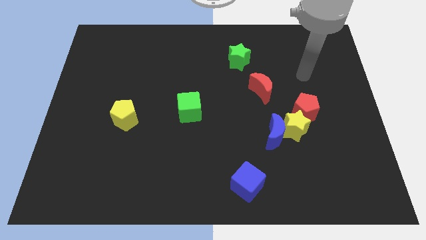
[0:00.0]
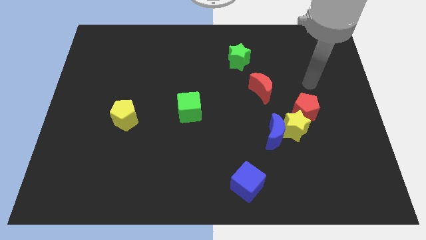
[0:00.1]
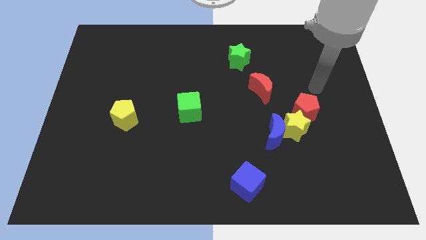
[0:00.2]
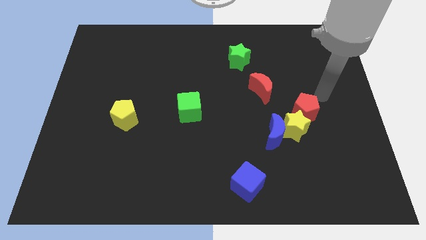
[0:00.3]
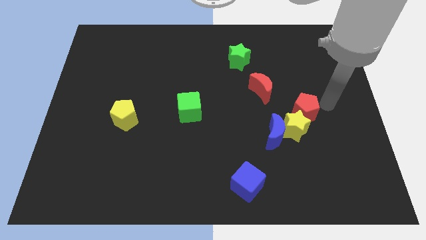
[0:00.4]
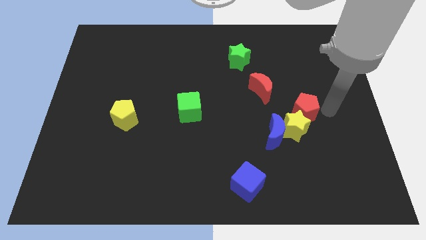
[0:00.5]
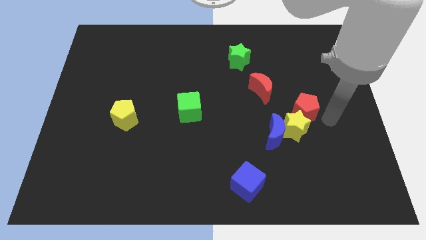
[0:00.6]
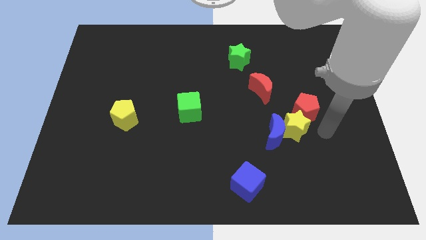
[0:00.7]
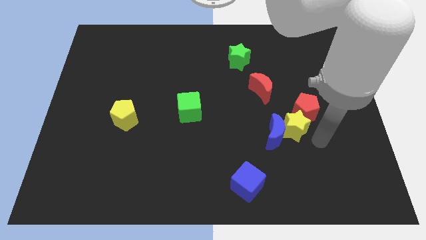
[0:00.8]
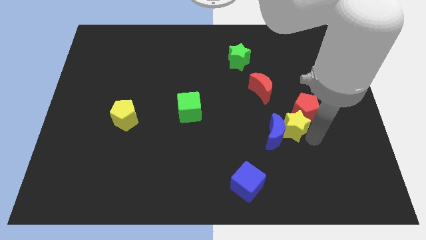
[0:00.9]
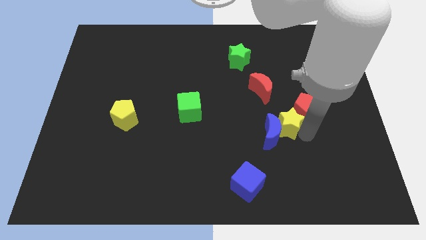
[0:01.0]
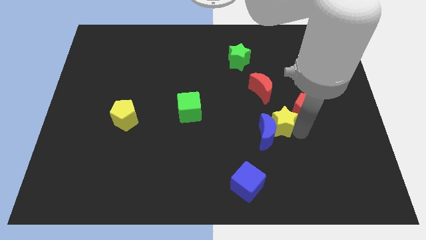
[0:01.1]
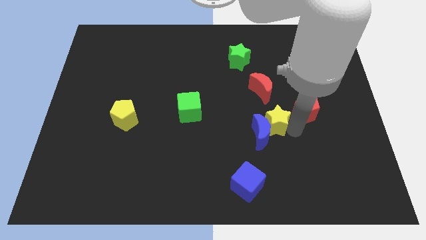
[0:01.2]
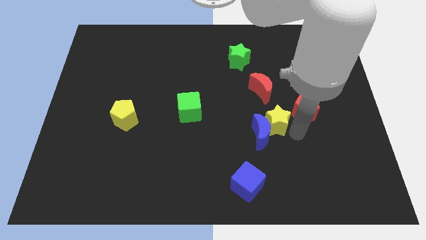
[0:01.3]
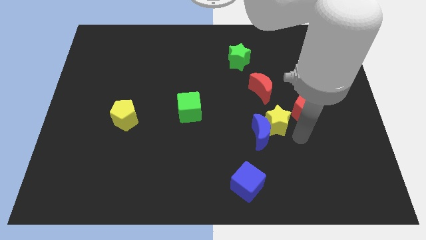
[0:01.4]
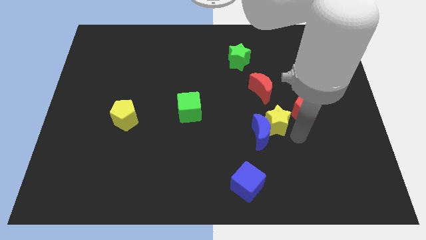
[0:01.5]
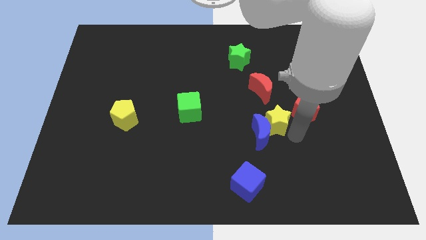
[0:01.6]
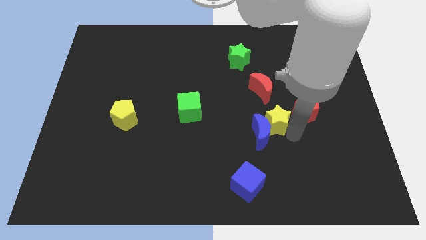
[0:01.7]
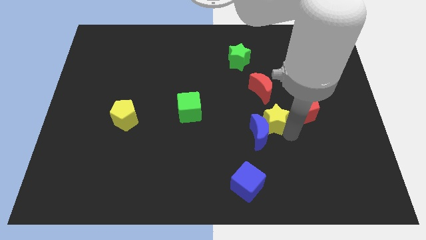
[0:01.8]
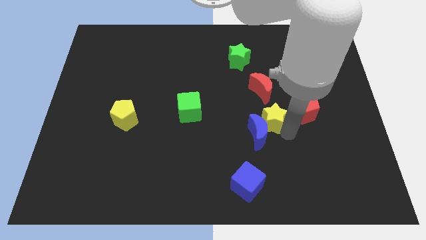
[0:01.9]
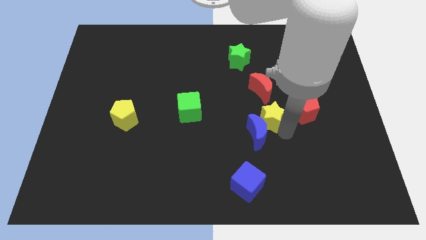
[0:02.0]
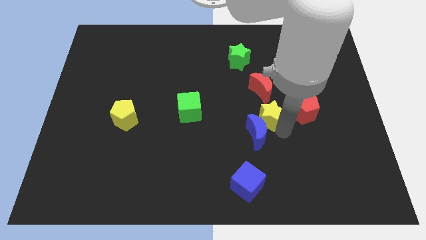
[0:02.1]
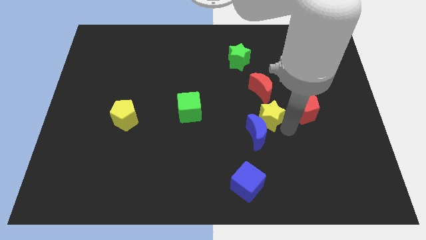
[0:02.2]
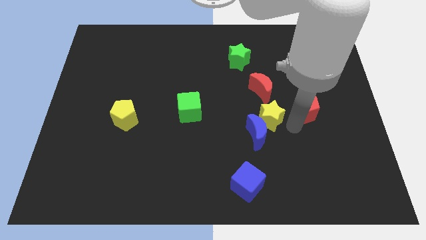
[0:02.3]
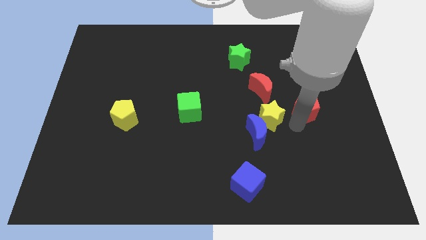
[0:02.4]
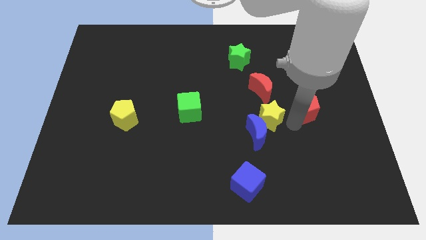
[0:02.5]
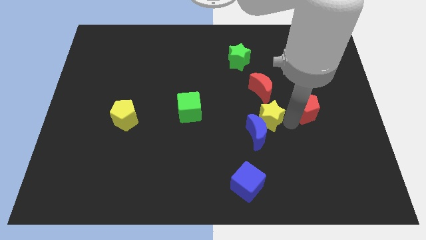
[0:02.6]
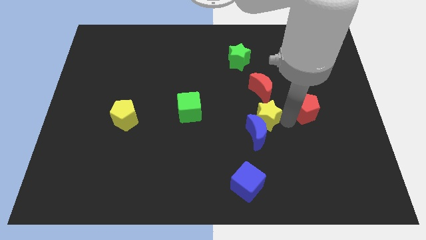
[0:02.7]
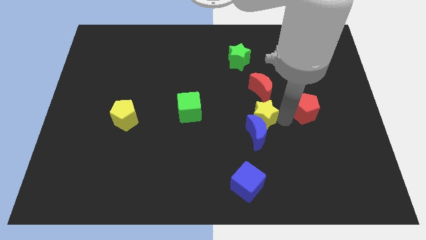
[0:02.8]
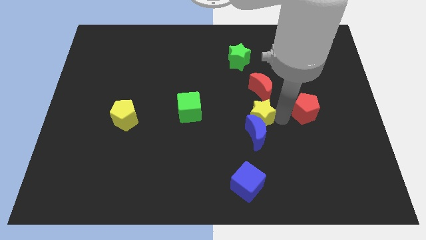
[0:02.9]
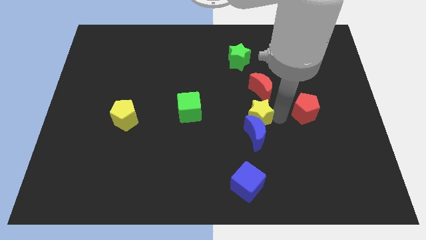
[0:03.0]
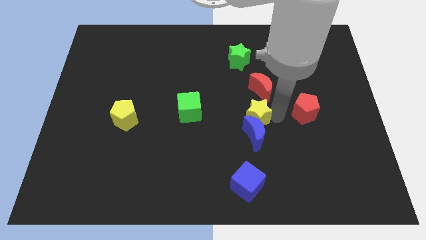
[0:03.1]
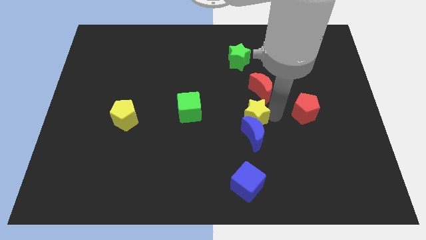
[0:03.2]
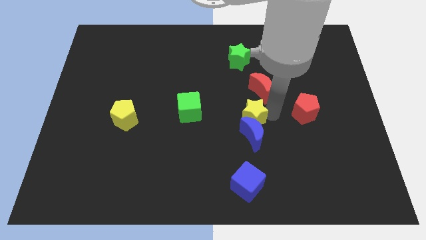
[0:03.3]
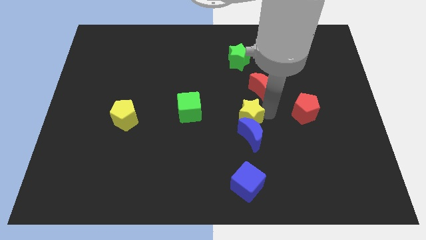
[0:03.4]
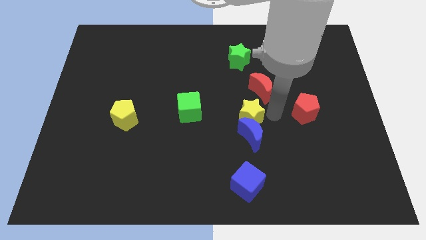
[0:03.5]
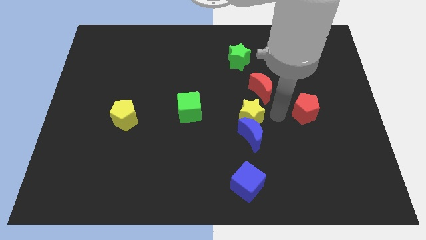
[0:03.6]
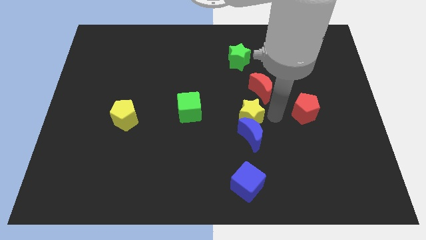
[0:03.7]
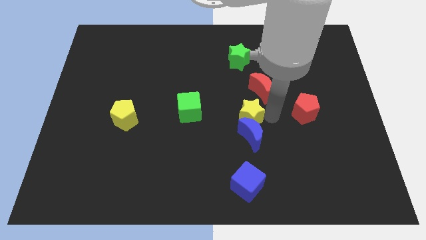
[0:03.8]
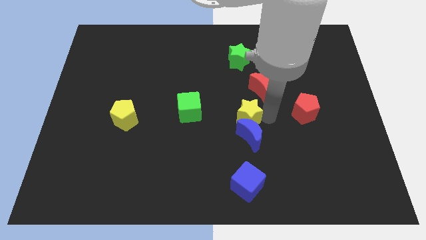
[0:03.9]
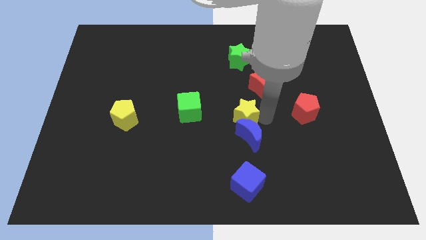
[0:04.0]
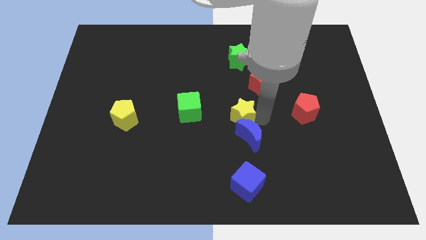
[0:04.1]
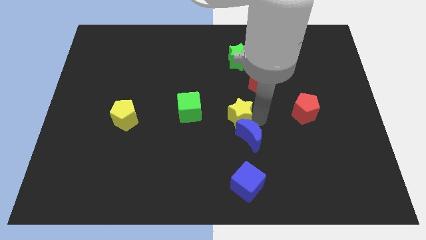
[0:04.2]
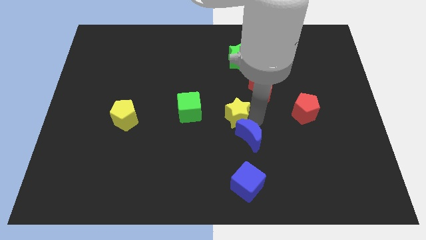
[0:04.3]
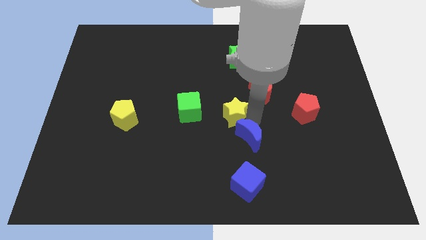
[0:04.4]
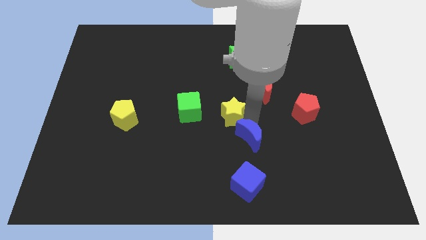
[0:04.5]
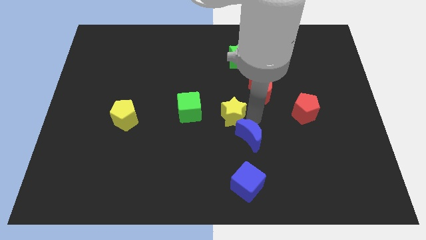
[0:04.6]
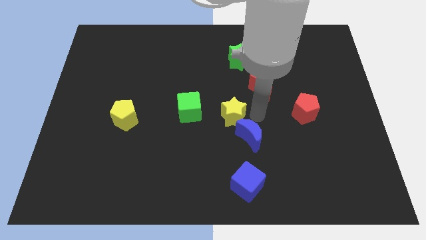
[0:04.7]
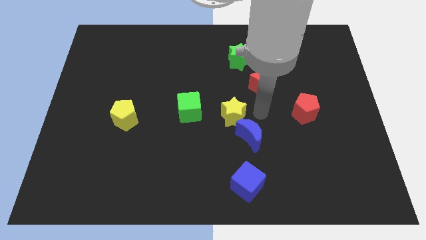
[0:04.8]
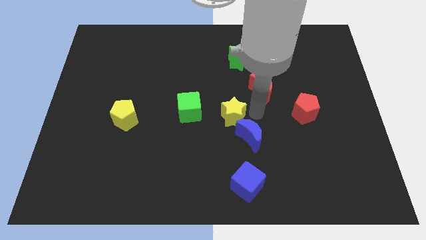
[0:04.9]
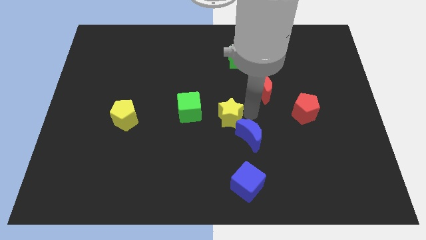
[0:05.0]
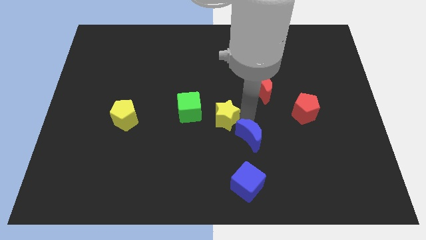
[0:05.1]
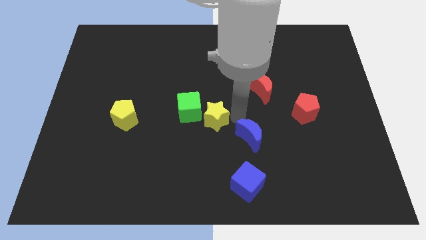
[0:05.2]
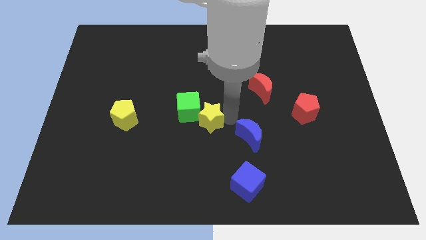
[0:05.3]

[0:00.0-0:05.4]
push the yellow star close to the green cube

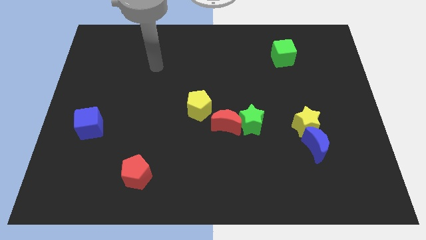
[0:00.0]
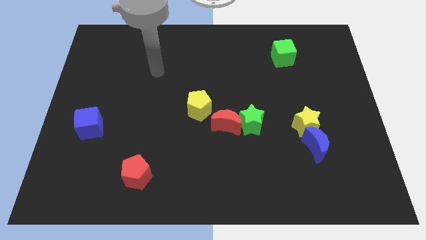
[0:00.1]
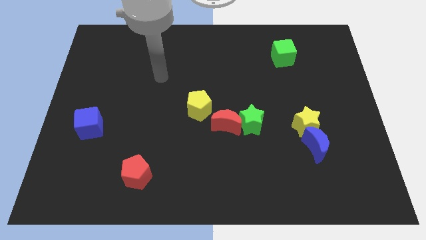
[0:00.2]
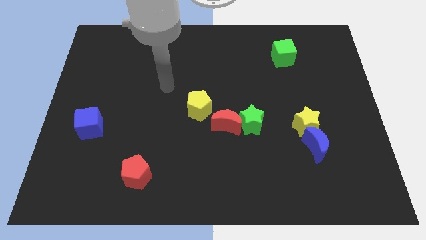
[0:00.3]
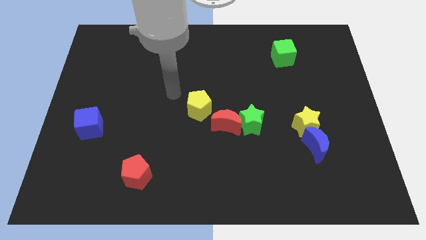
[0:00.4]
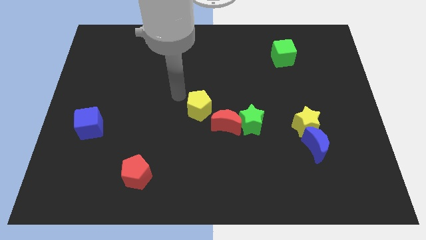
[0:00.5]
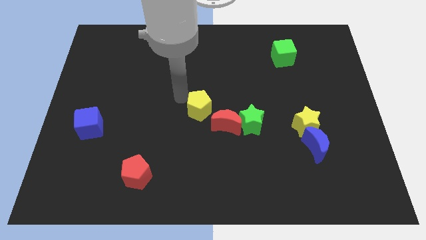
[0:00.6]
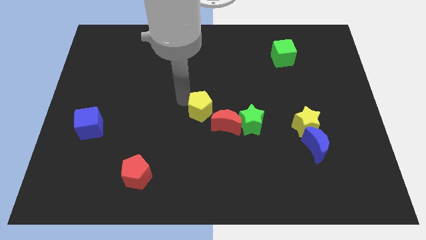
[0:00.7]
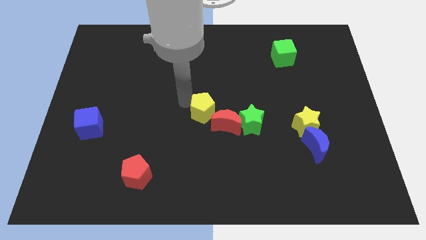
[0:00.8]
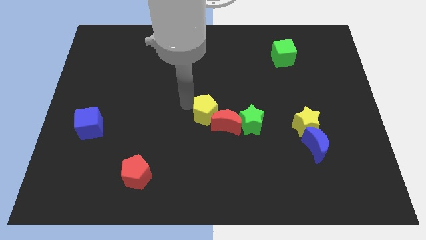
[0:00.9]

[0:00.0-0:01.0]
put the yellow pentagon to the red moon
